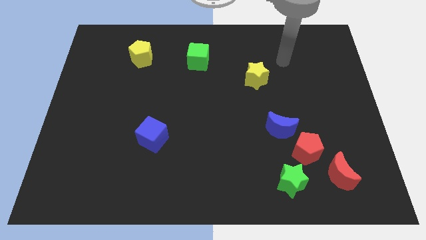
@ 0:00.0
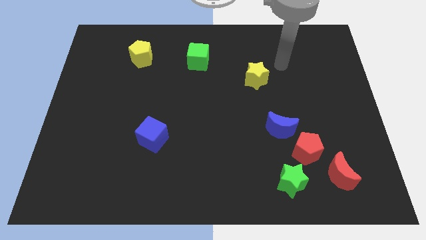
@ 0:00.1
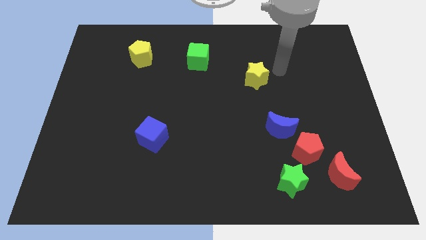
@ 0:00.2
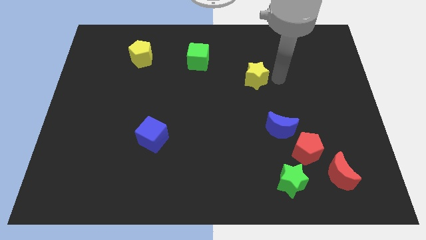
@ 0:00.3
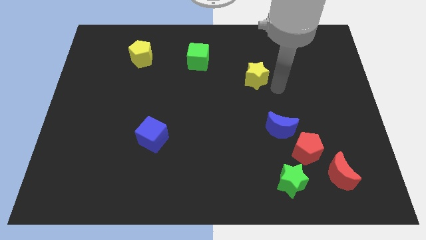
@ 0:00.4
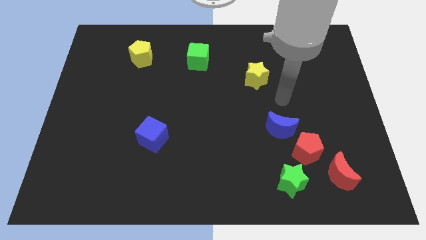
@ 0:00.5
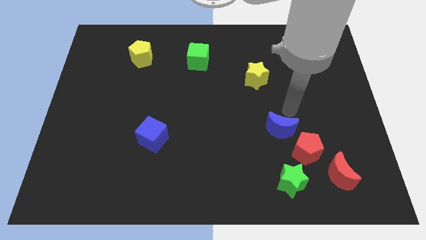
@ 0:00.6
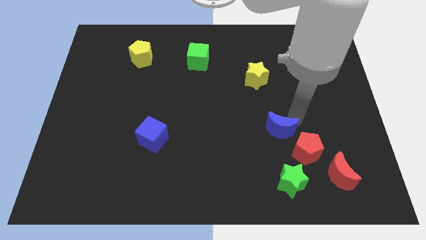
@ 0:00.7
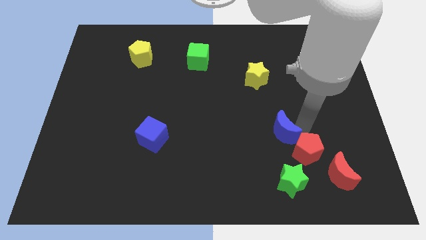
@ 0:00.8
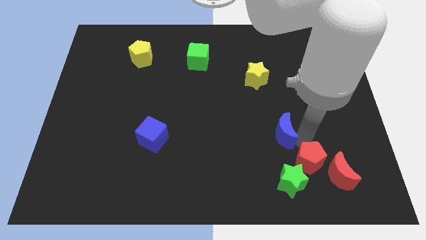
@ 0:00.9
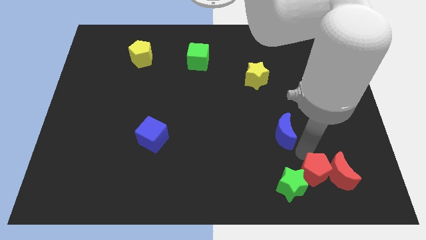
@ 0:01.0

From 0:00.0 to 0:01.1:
move the blue moon away from the red pentagon

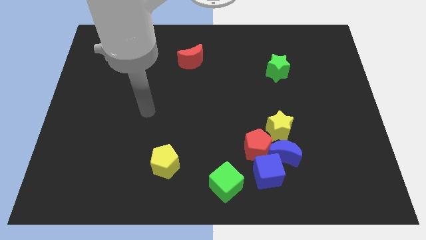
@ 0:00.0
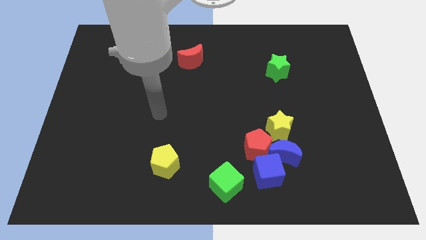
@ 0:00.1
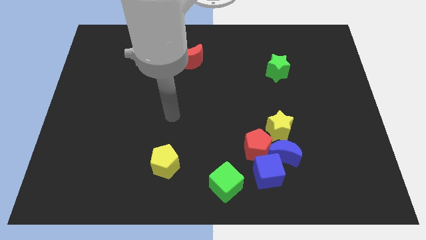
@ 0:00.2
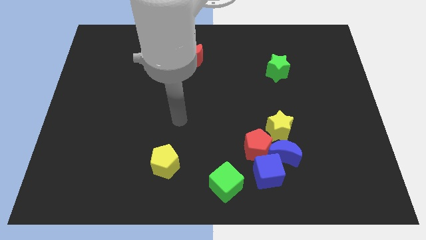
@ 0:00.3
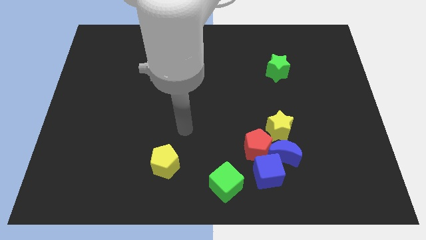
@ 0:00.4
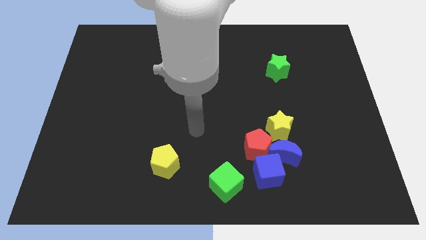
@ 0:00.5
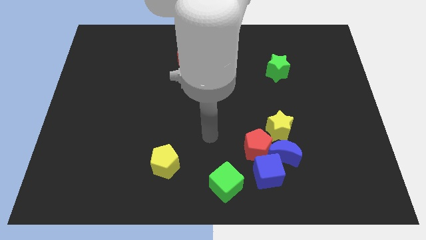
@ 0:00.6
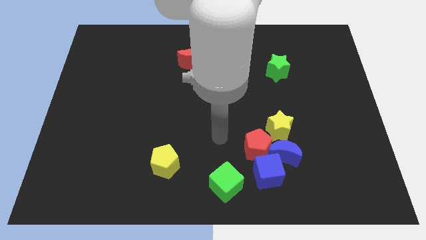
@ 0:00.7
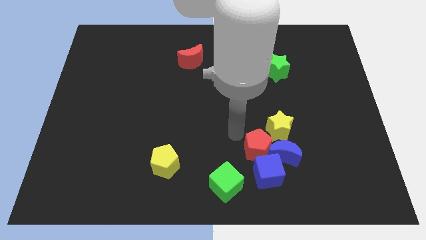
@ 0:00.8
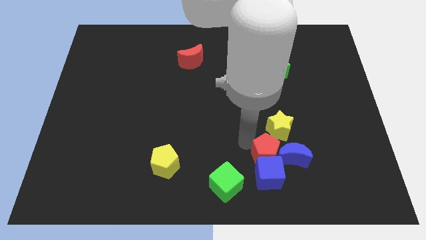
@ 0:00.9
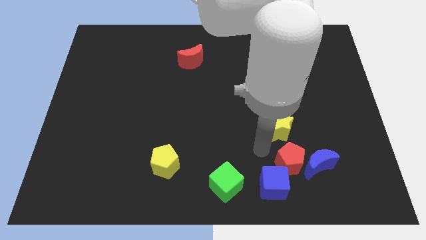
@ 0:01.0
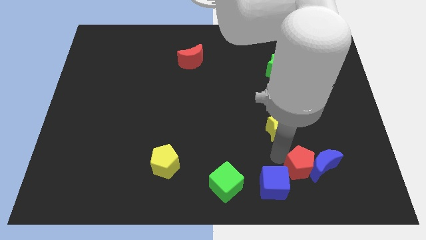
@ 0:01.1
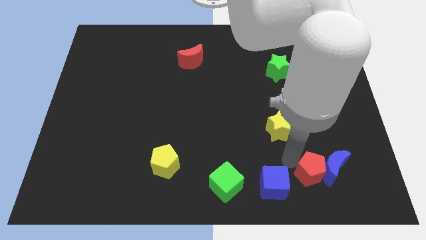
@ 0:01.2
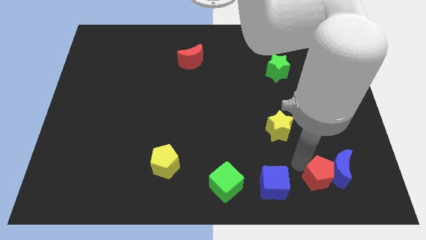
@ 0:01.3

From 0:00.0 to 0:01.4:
pull the blue moon apart from the clump

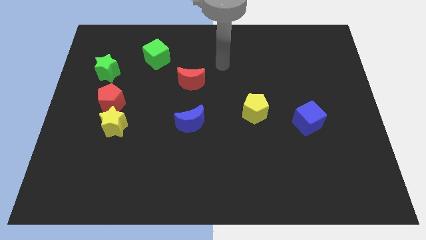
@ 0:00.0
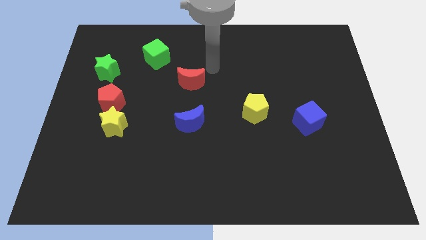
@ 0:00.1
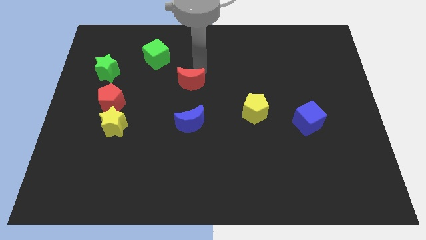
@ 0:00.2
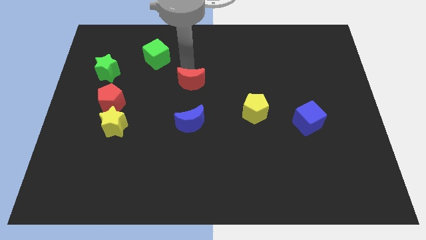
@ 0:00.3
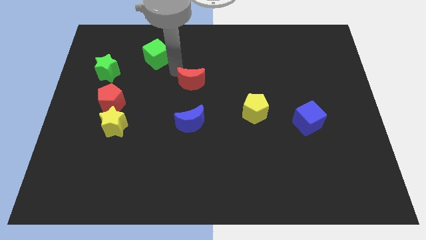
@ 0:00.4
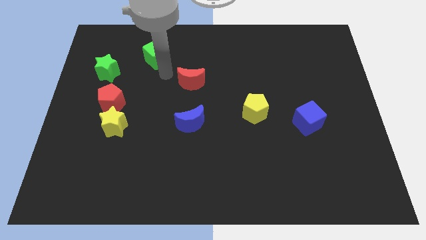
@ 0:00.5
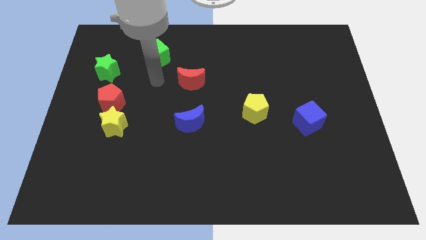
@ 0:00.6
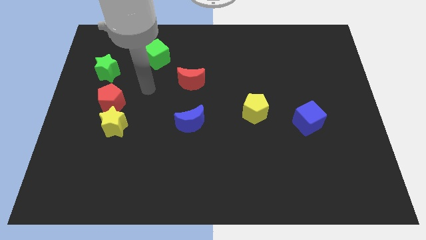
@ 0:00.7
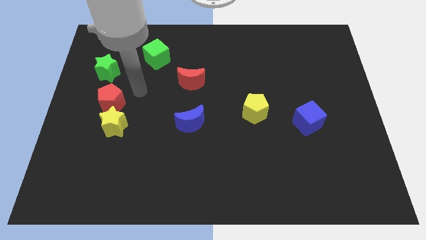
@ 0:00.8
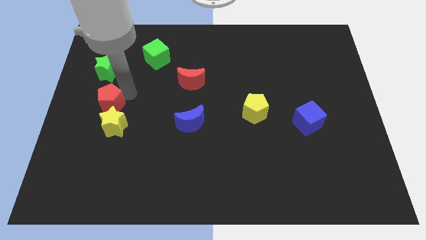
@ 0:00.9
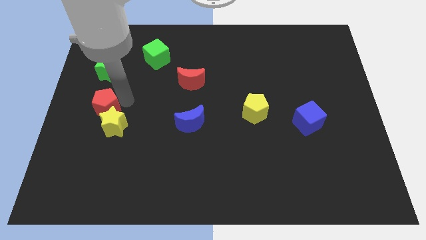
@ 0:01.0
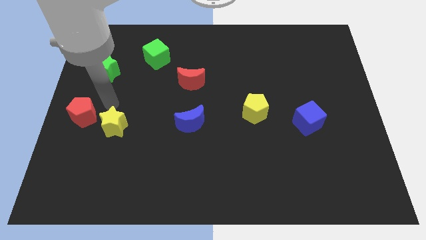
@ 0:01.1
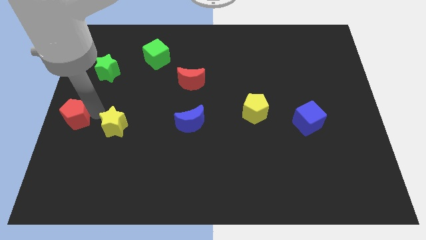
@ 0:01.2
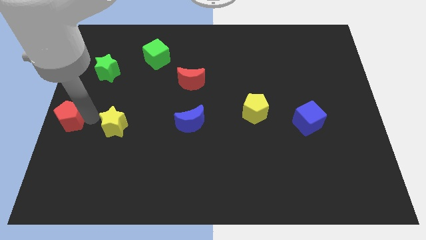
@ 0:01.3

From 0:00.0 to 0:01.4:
move the yellow star away from the red pentagon

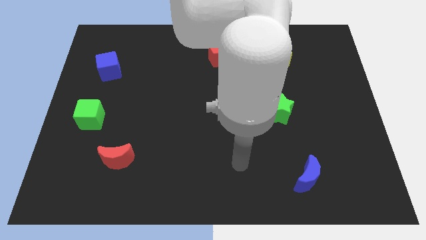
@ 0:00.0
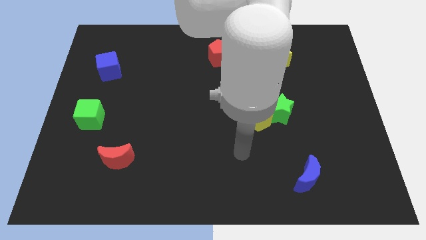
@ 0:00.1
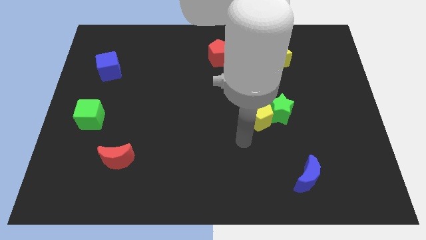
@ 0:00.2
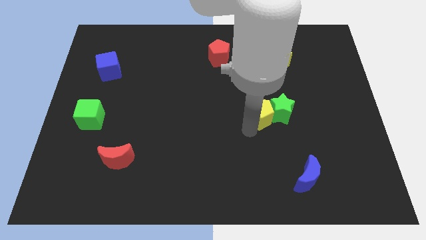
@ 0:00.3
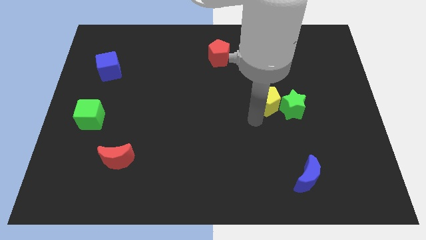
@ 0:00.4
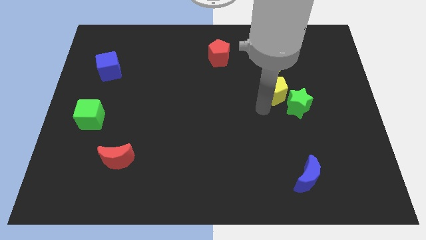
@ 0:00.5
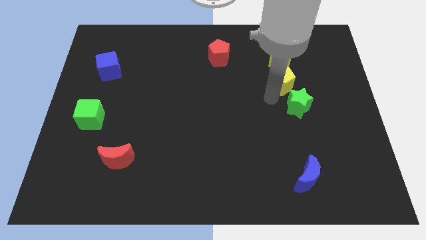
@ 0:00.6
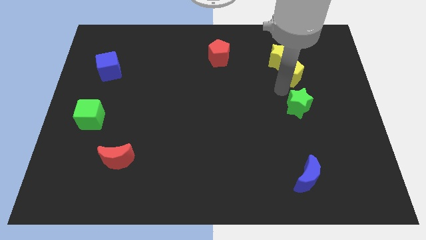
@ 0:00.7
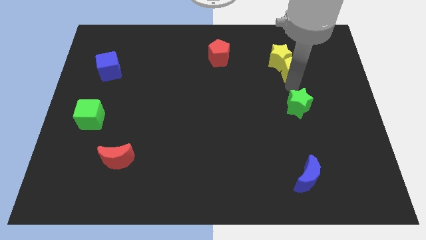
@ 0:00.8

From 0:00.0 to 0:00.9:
pull the green star apart from the yellow pentagon

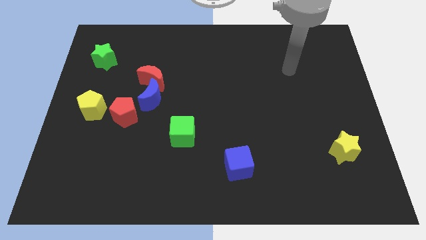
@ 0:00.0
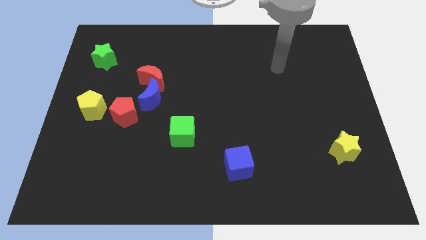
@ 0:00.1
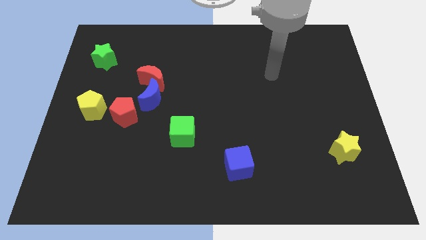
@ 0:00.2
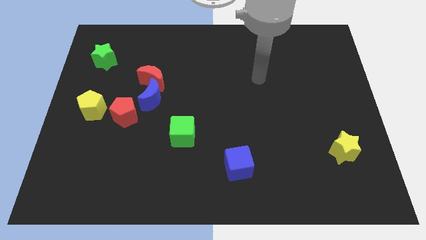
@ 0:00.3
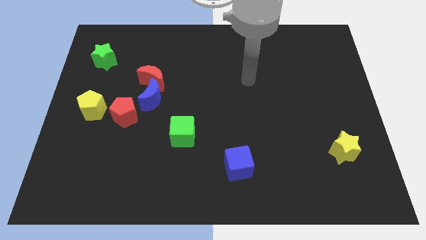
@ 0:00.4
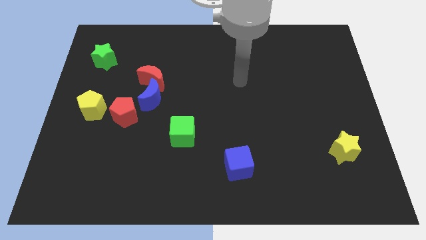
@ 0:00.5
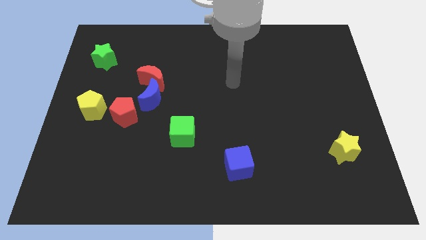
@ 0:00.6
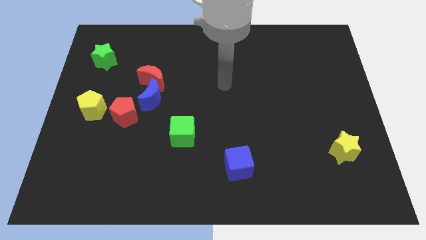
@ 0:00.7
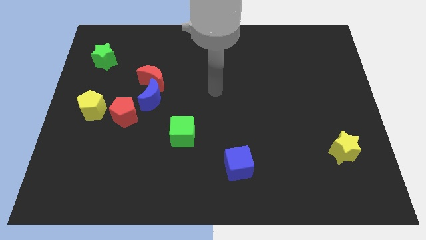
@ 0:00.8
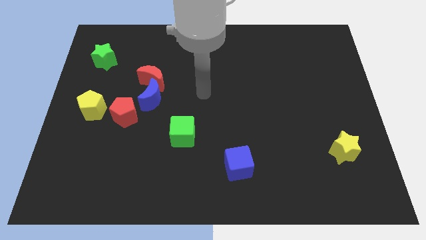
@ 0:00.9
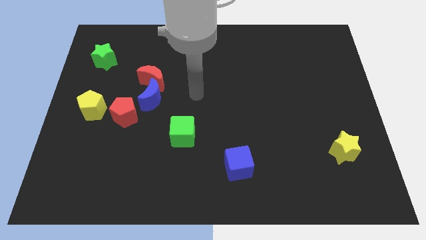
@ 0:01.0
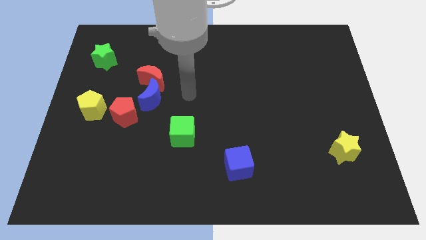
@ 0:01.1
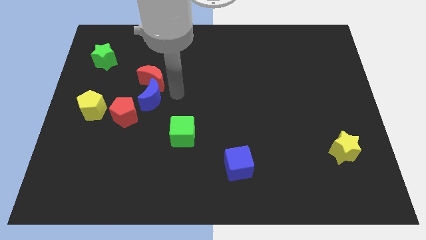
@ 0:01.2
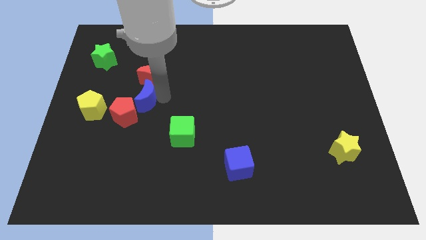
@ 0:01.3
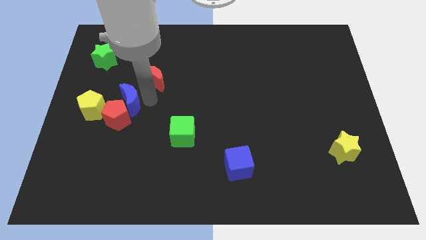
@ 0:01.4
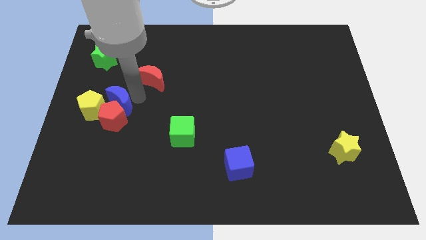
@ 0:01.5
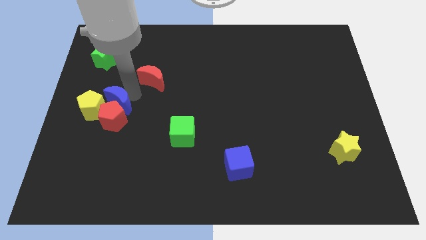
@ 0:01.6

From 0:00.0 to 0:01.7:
move the red moon away from the blue moon

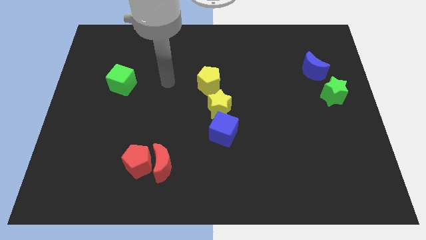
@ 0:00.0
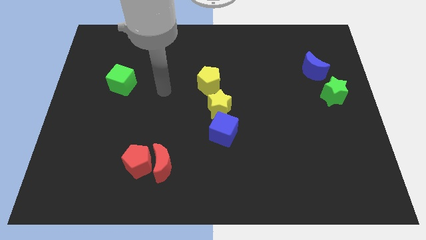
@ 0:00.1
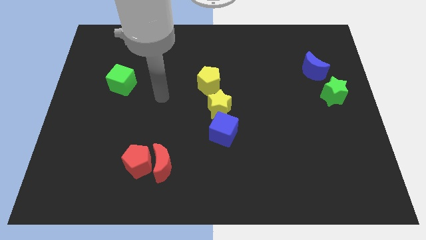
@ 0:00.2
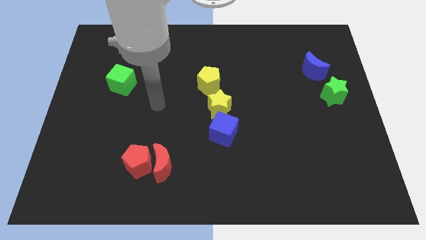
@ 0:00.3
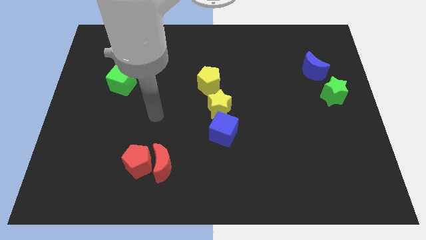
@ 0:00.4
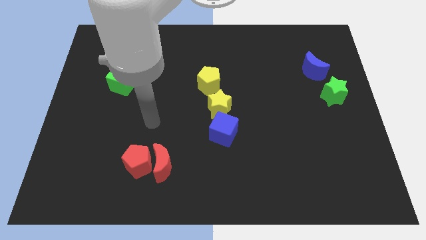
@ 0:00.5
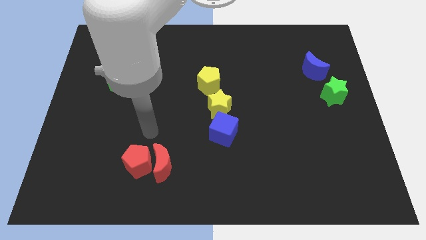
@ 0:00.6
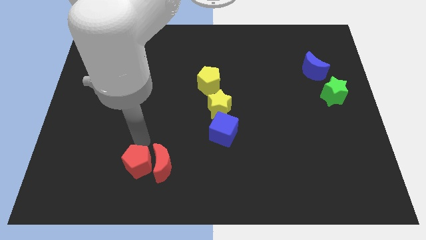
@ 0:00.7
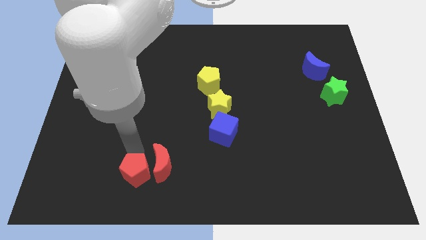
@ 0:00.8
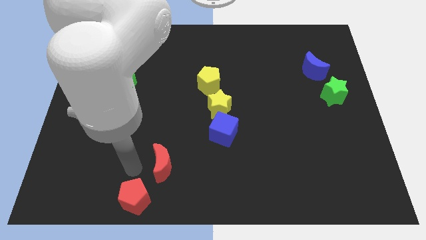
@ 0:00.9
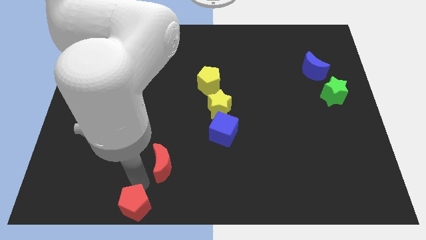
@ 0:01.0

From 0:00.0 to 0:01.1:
pull the red moon apart from the red pentagon

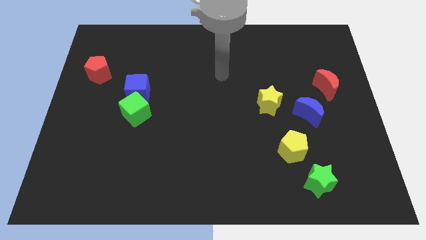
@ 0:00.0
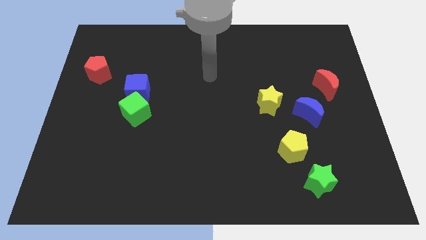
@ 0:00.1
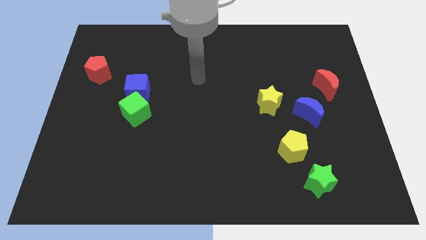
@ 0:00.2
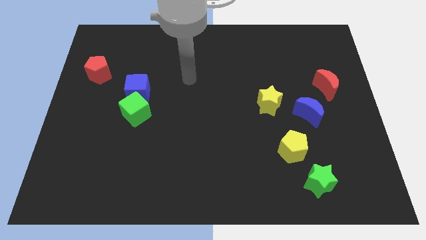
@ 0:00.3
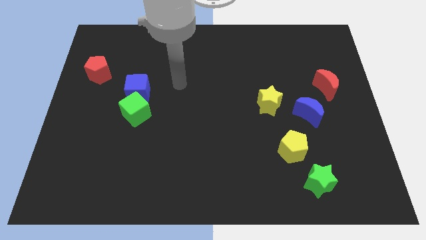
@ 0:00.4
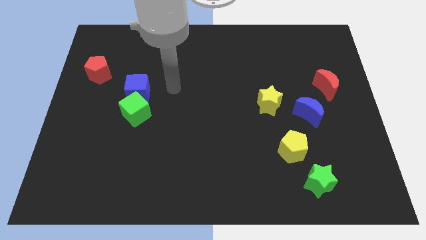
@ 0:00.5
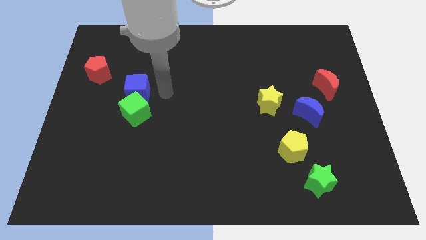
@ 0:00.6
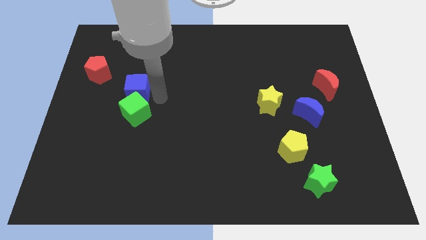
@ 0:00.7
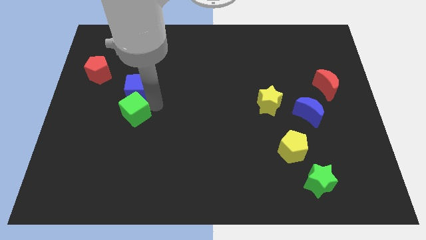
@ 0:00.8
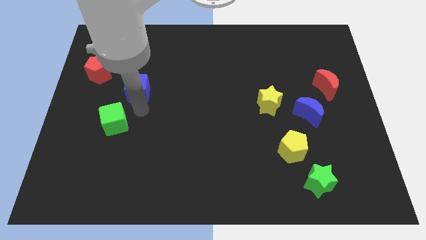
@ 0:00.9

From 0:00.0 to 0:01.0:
separate the blue cube from the green cube

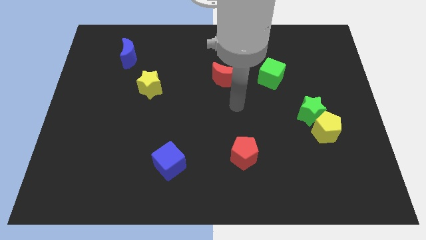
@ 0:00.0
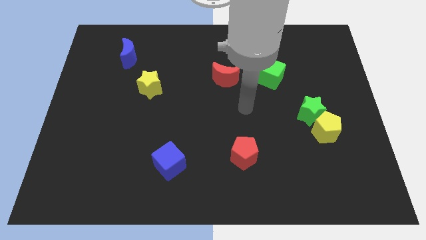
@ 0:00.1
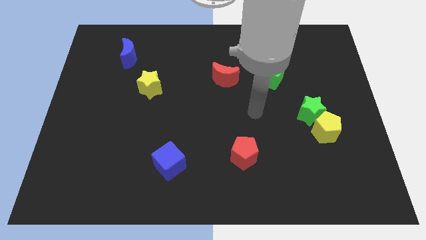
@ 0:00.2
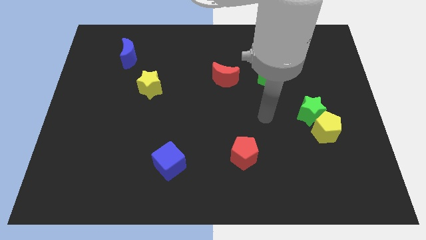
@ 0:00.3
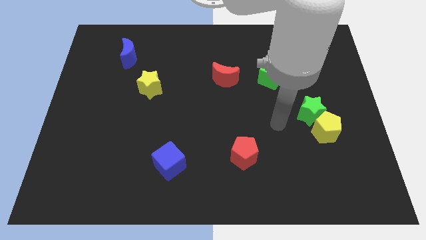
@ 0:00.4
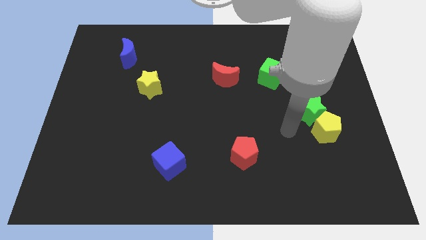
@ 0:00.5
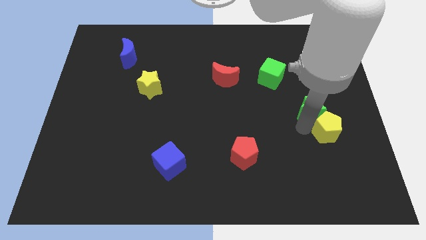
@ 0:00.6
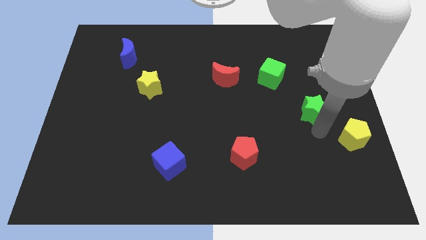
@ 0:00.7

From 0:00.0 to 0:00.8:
move the green star away from the yellow pentagon
